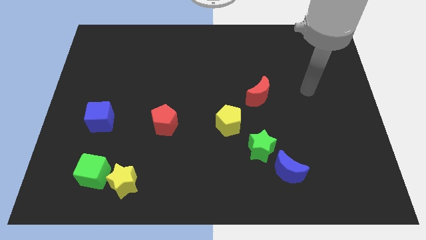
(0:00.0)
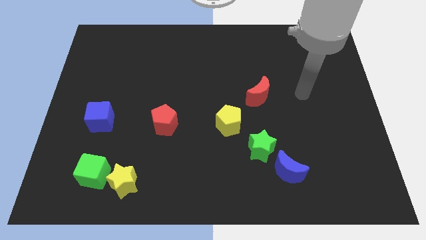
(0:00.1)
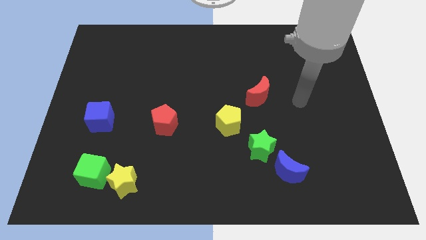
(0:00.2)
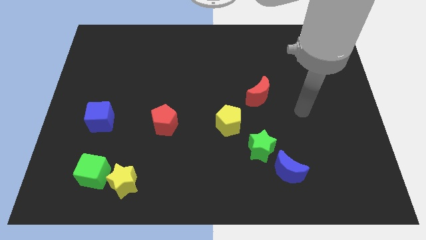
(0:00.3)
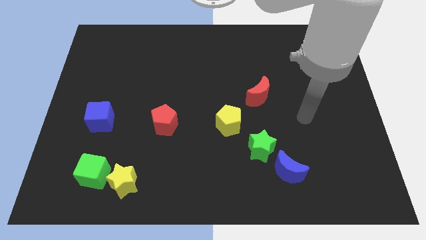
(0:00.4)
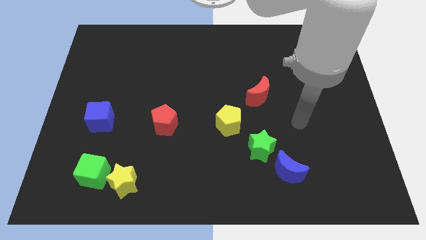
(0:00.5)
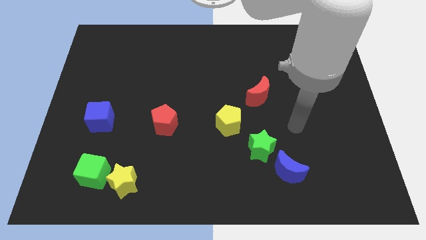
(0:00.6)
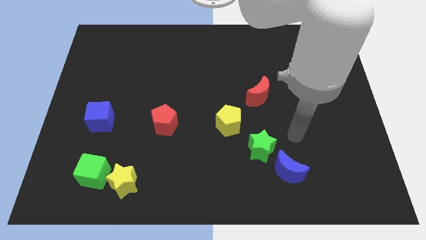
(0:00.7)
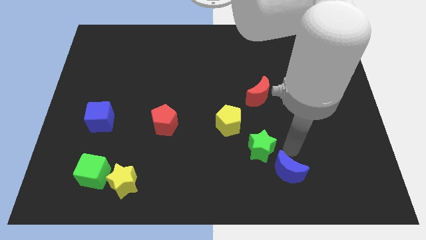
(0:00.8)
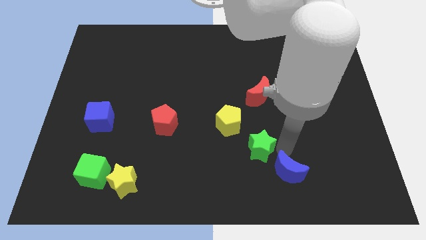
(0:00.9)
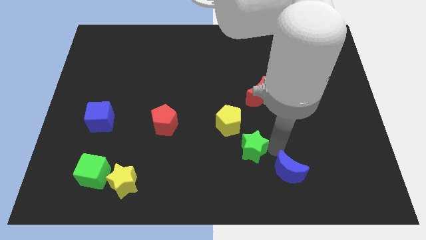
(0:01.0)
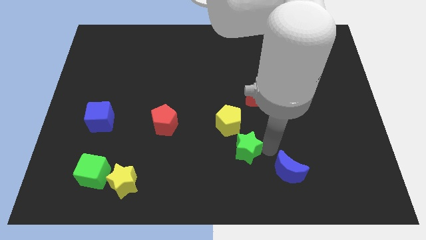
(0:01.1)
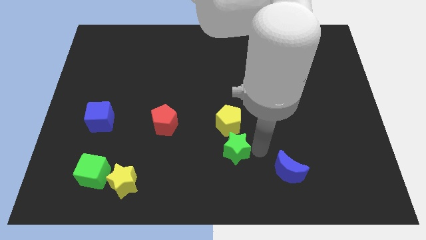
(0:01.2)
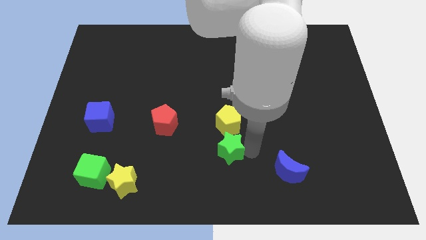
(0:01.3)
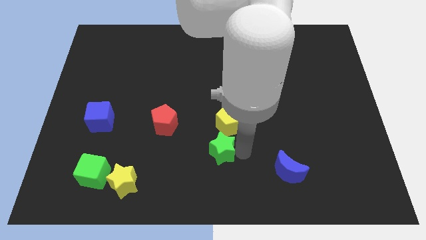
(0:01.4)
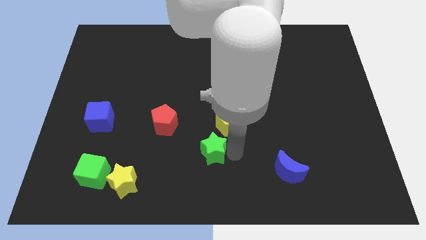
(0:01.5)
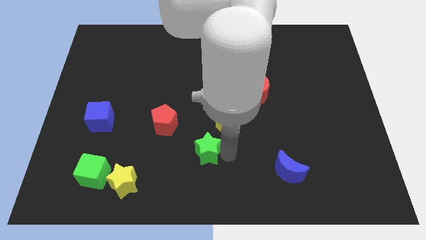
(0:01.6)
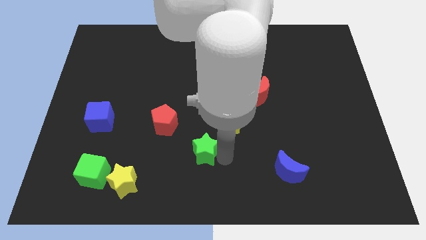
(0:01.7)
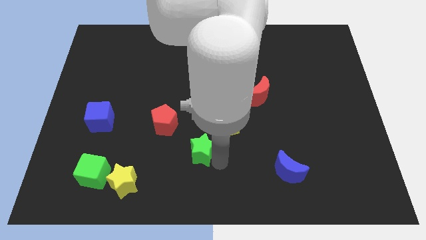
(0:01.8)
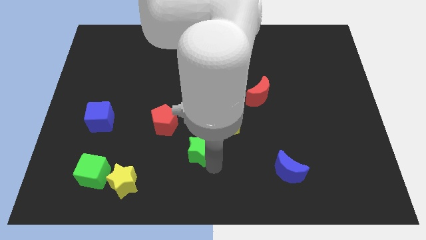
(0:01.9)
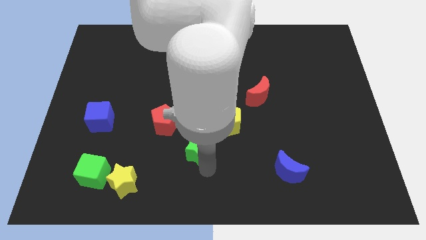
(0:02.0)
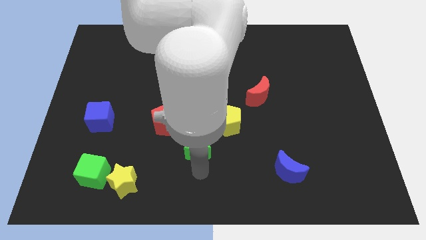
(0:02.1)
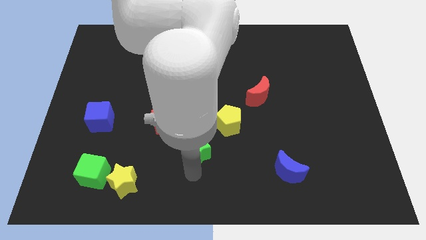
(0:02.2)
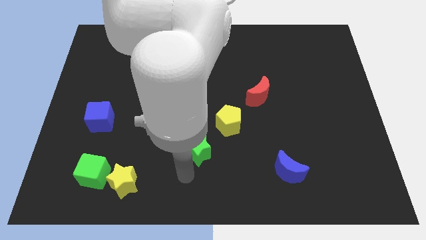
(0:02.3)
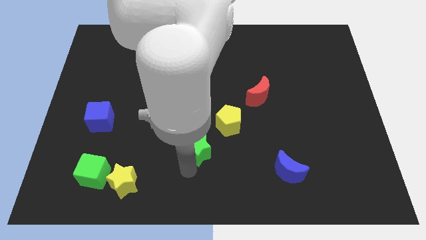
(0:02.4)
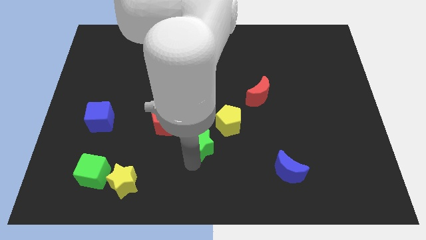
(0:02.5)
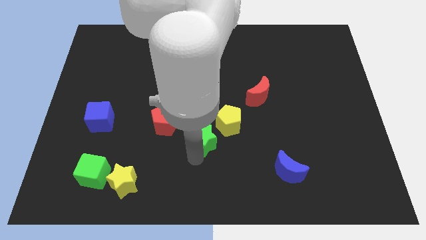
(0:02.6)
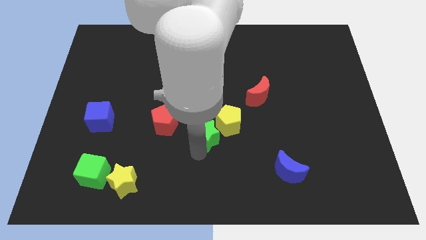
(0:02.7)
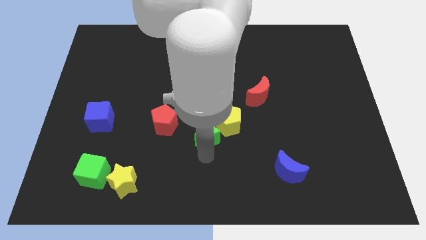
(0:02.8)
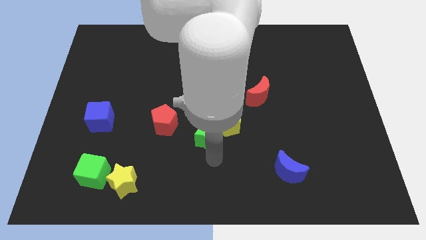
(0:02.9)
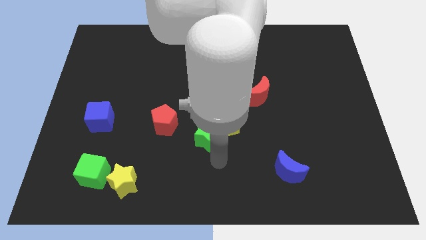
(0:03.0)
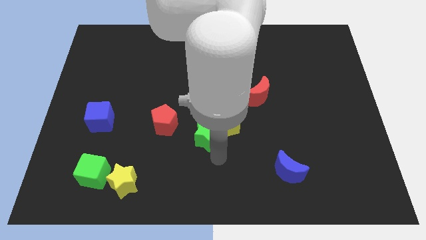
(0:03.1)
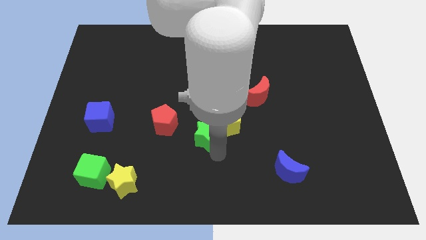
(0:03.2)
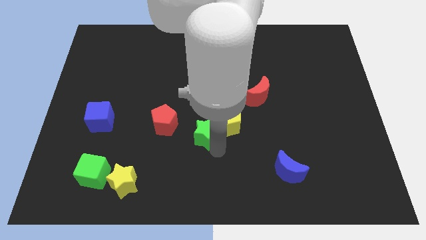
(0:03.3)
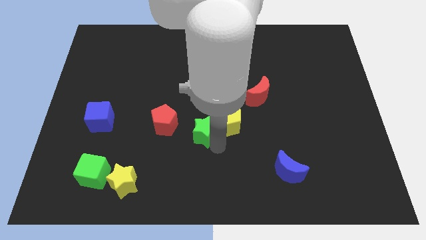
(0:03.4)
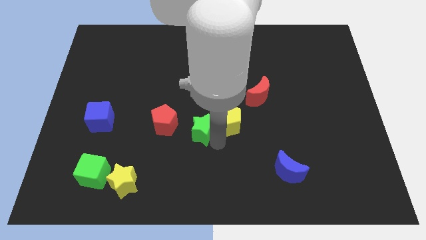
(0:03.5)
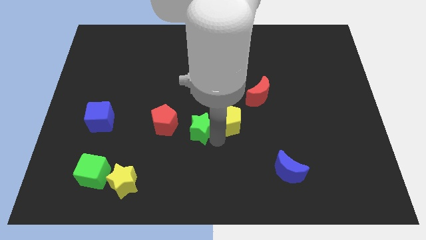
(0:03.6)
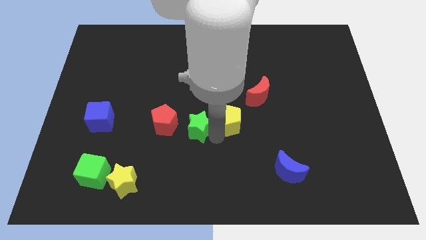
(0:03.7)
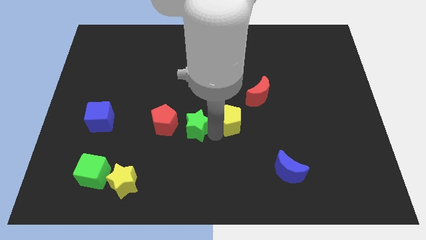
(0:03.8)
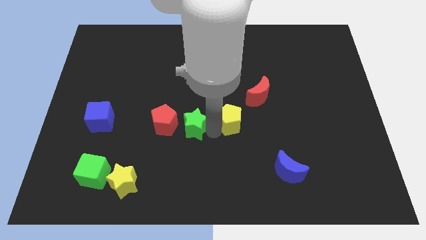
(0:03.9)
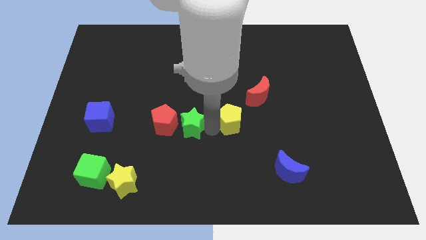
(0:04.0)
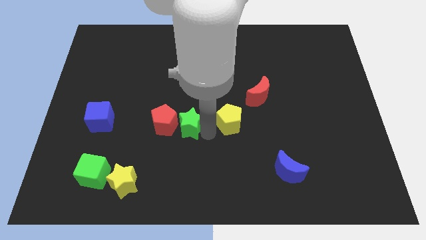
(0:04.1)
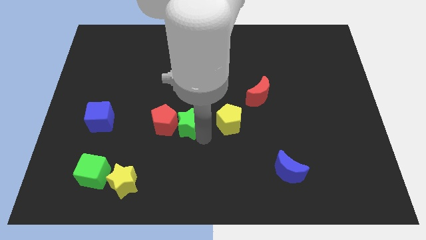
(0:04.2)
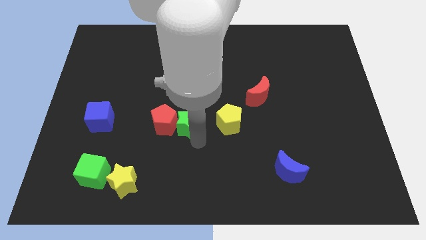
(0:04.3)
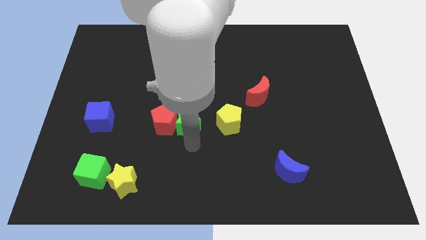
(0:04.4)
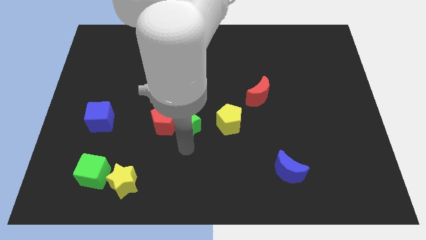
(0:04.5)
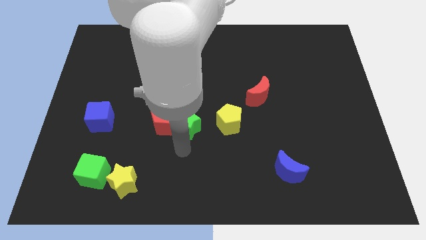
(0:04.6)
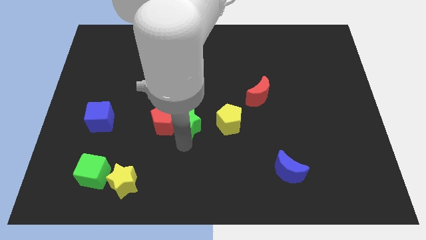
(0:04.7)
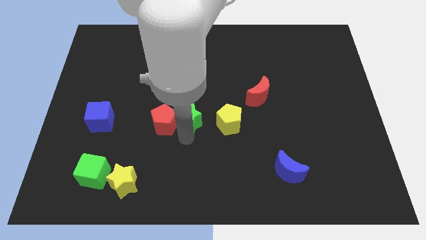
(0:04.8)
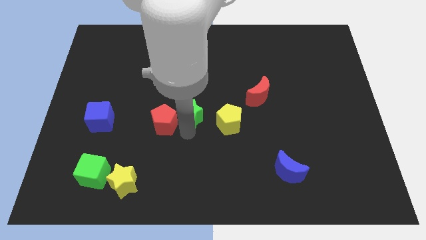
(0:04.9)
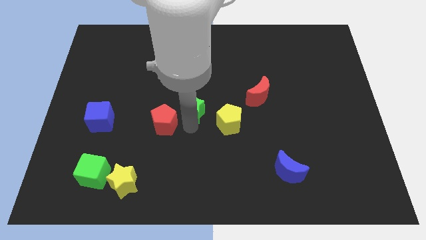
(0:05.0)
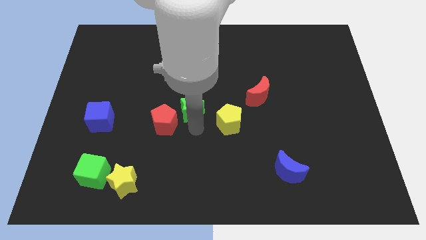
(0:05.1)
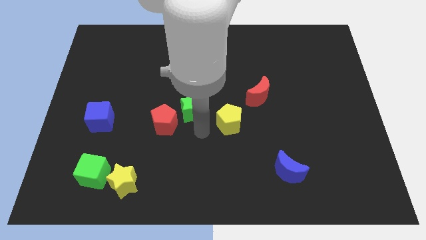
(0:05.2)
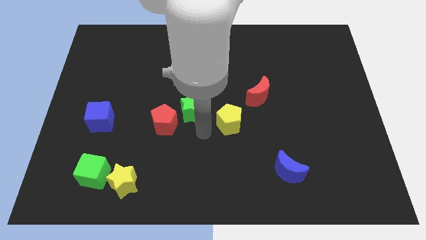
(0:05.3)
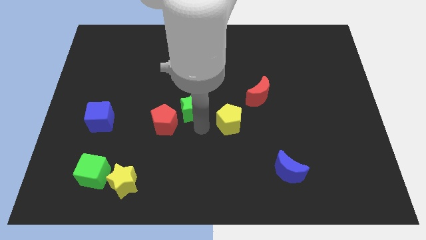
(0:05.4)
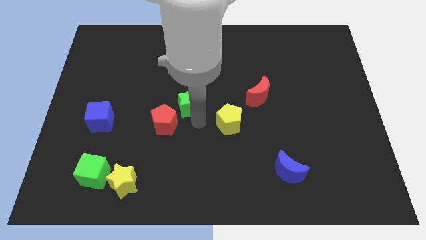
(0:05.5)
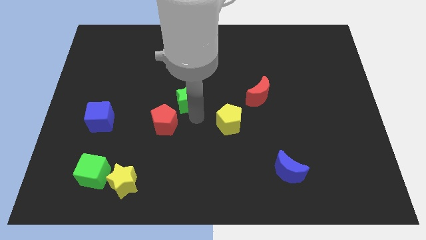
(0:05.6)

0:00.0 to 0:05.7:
push the green star upwards and then left

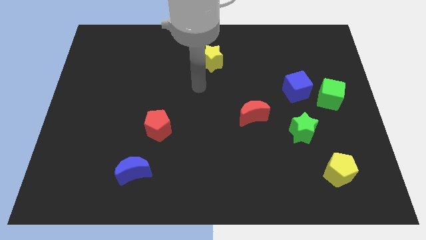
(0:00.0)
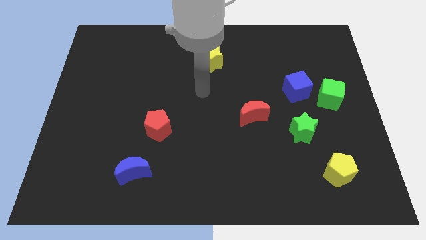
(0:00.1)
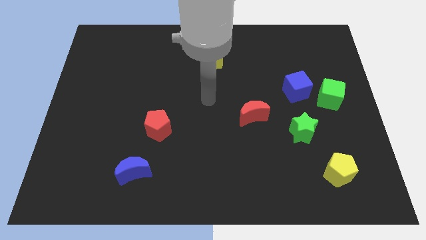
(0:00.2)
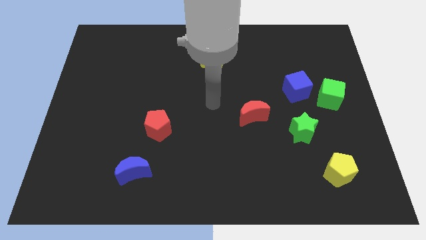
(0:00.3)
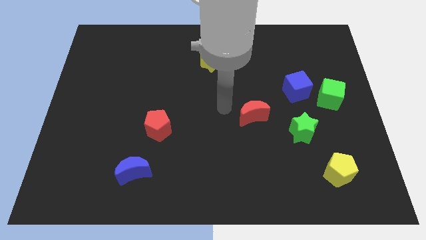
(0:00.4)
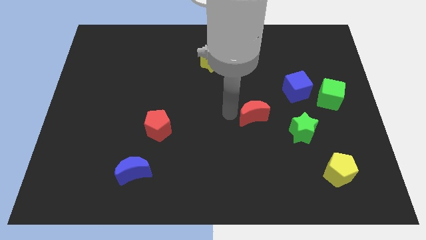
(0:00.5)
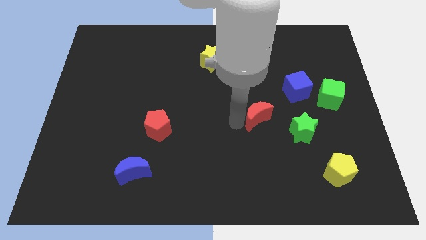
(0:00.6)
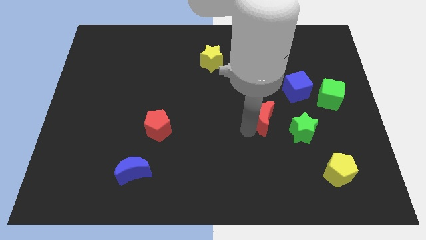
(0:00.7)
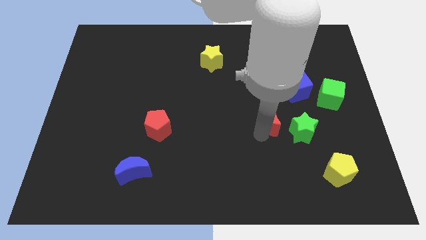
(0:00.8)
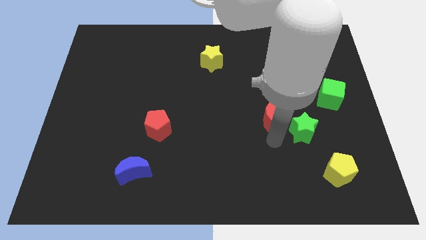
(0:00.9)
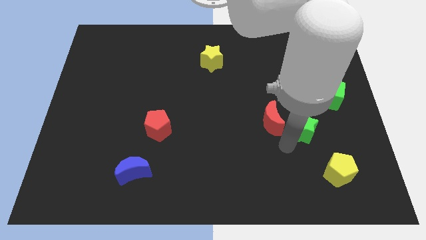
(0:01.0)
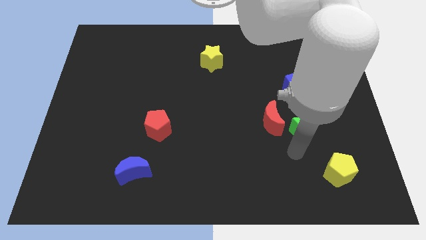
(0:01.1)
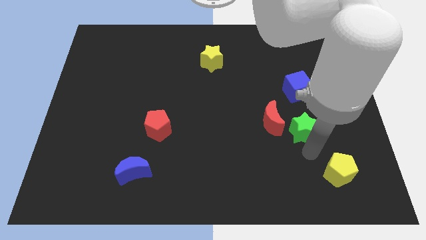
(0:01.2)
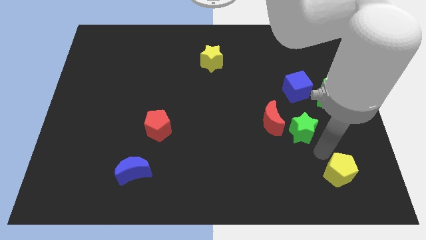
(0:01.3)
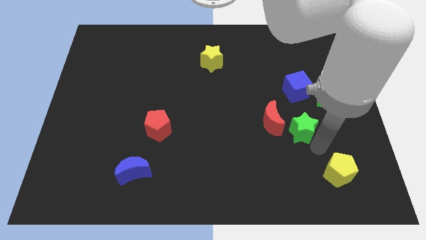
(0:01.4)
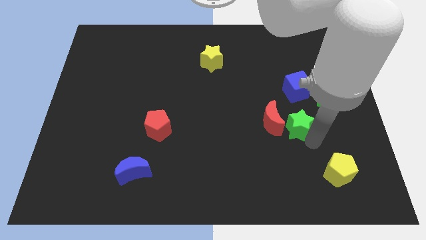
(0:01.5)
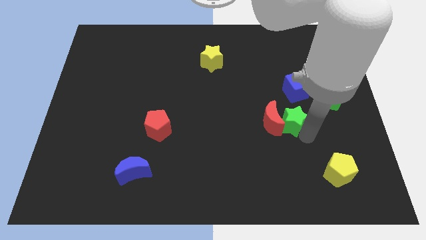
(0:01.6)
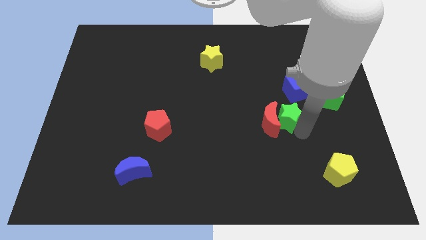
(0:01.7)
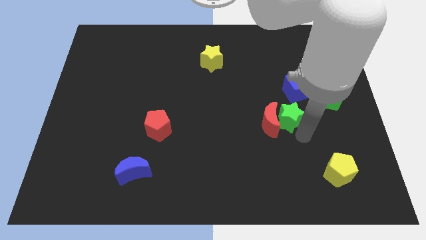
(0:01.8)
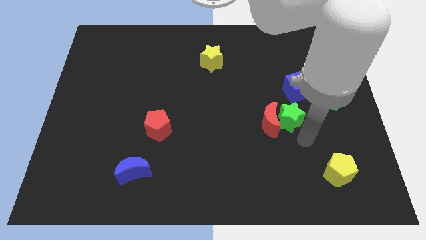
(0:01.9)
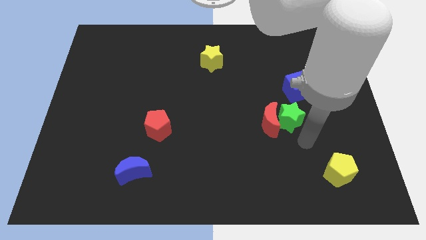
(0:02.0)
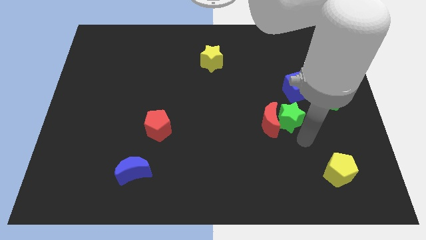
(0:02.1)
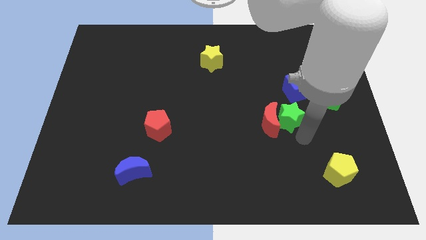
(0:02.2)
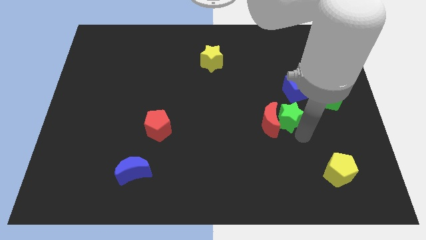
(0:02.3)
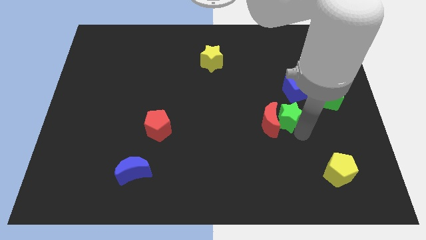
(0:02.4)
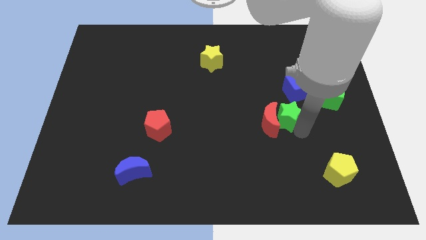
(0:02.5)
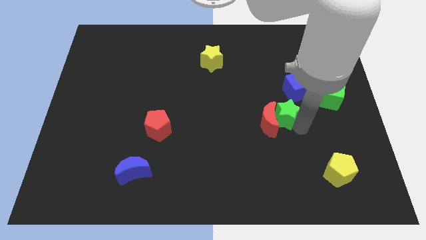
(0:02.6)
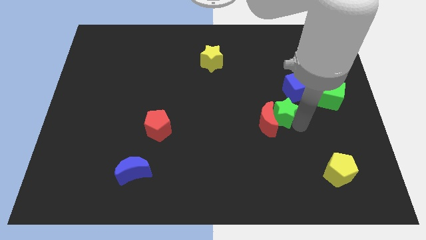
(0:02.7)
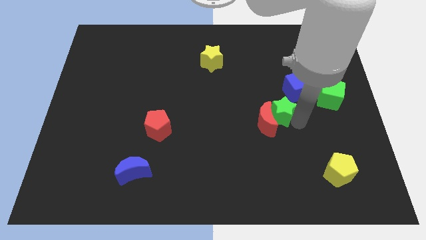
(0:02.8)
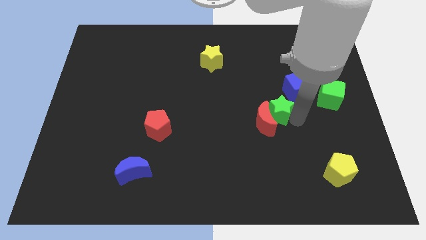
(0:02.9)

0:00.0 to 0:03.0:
slightly push the green star diagonally up and left
